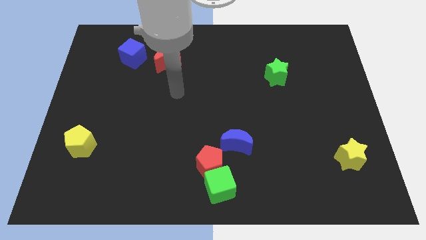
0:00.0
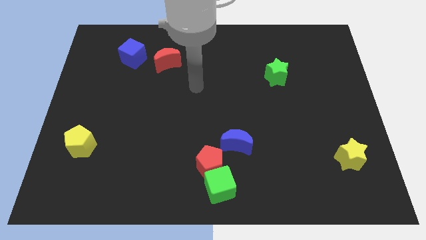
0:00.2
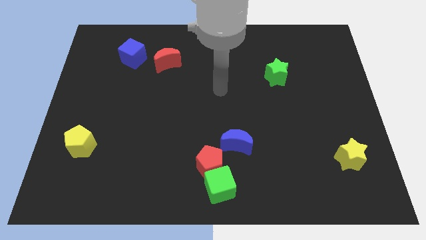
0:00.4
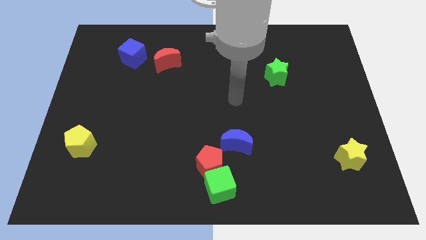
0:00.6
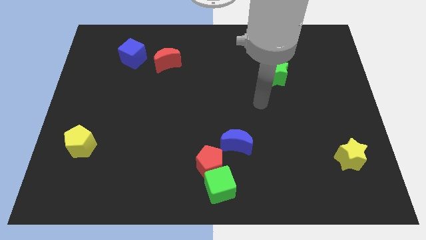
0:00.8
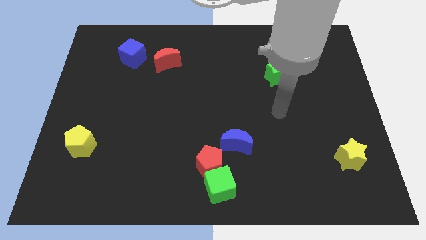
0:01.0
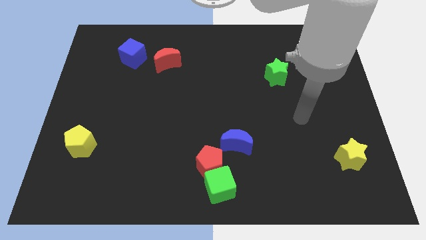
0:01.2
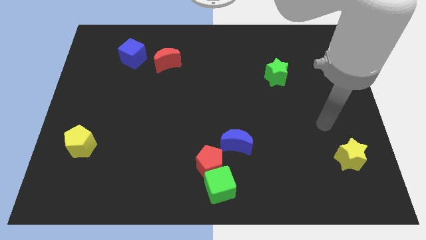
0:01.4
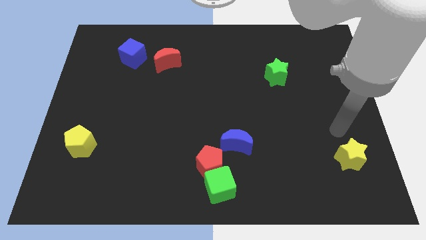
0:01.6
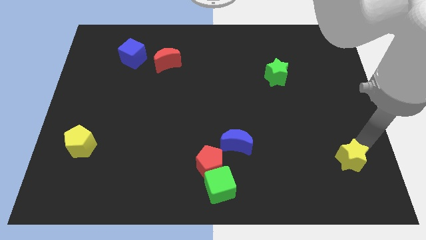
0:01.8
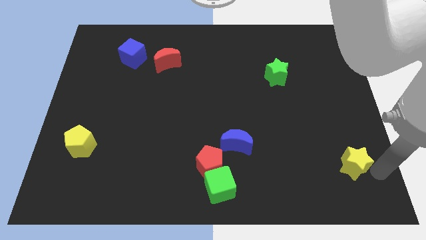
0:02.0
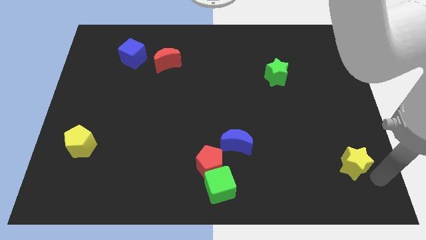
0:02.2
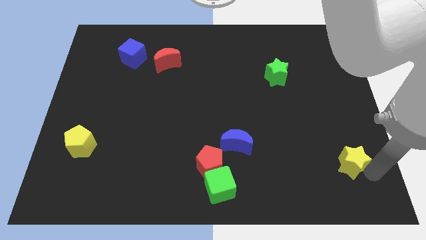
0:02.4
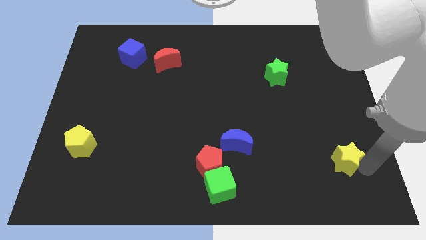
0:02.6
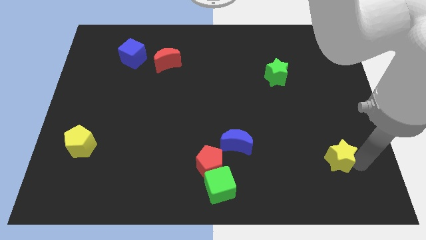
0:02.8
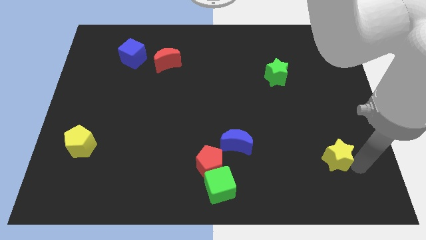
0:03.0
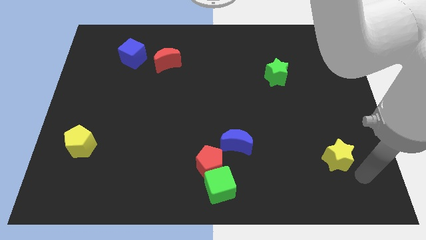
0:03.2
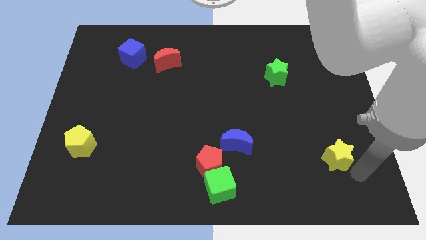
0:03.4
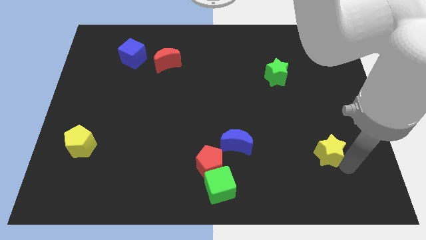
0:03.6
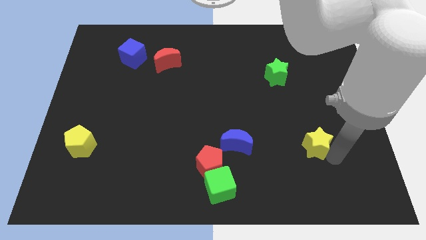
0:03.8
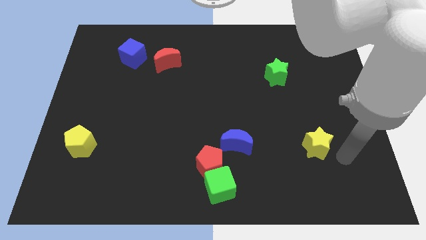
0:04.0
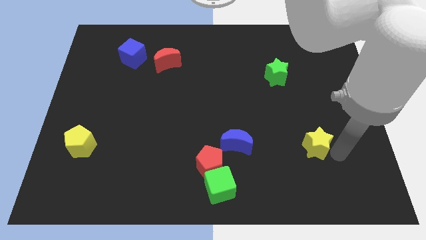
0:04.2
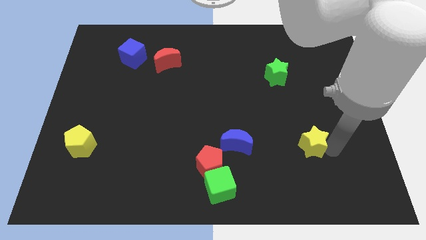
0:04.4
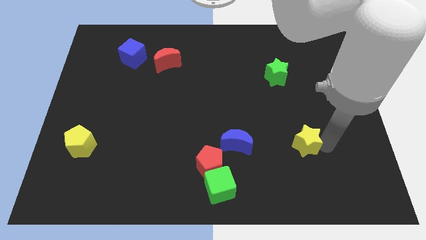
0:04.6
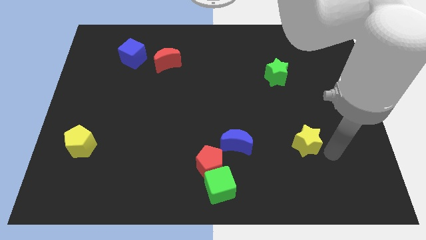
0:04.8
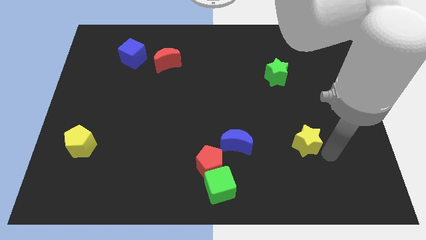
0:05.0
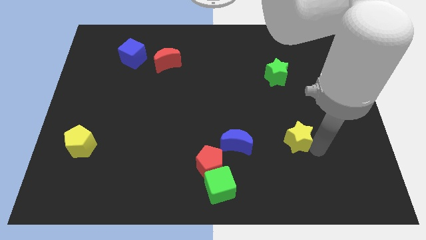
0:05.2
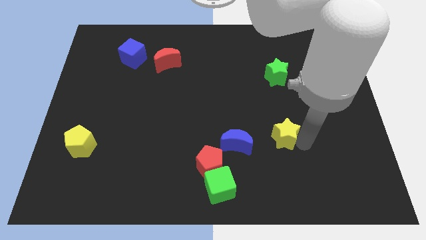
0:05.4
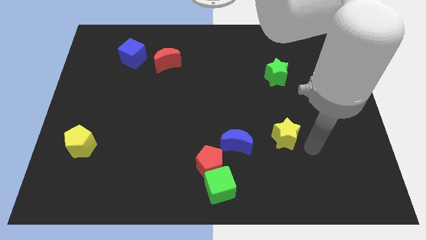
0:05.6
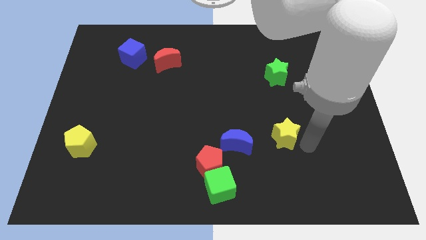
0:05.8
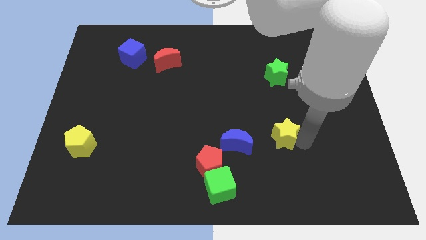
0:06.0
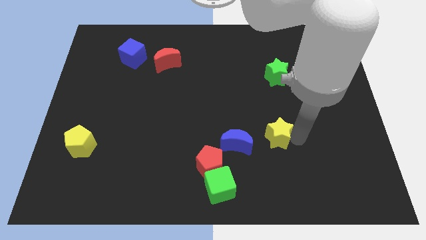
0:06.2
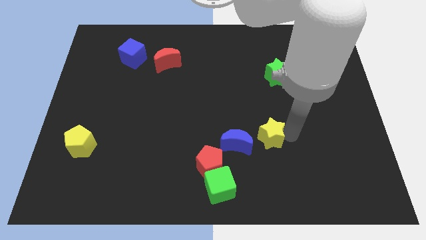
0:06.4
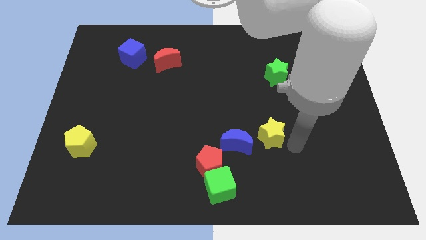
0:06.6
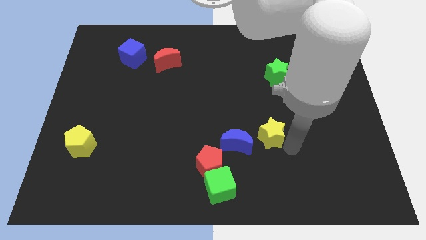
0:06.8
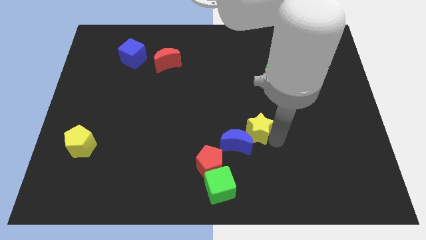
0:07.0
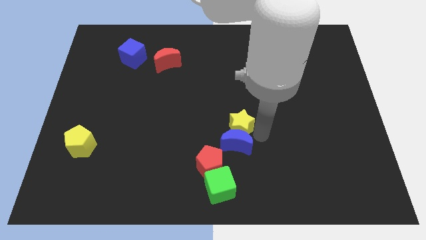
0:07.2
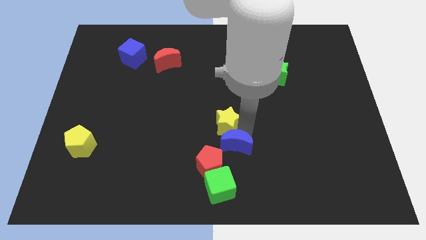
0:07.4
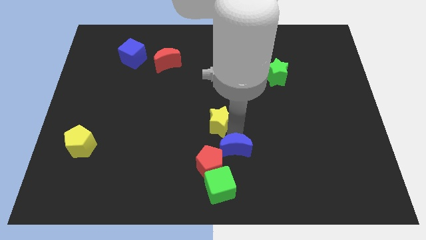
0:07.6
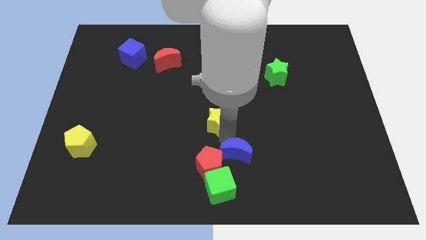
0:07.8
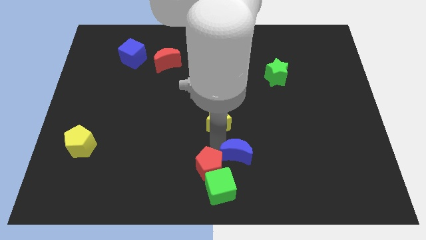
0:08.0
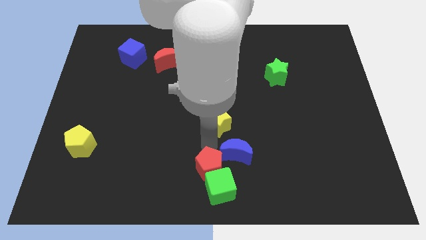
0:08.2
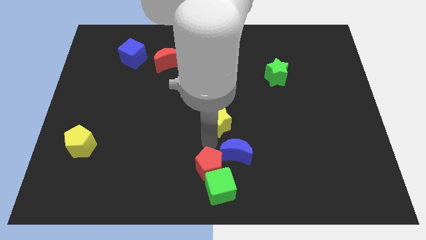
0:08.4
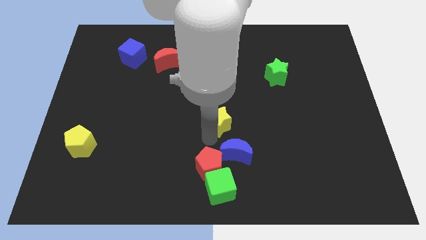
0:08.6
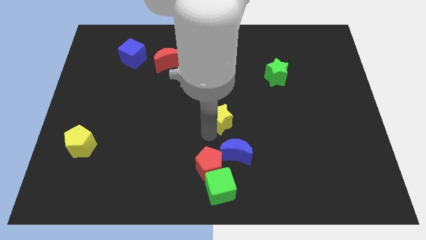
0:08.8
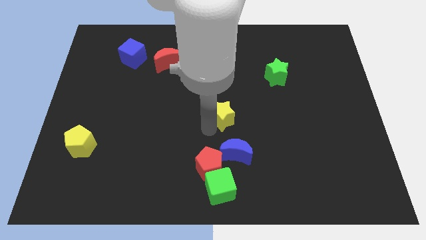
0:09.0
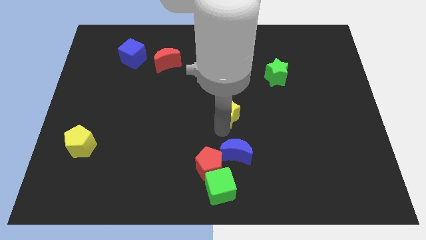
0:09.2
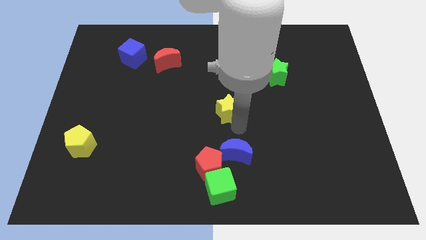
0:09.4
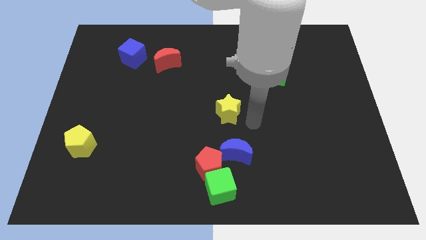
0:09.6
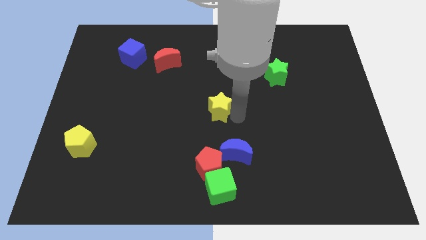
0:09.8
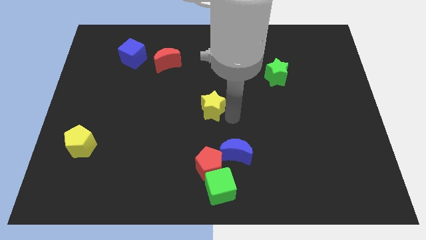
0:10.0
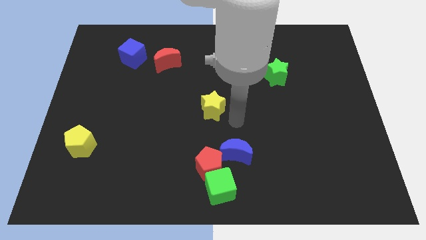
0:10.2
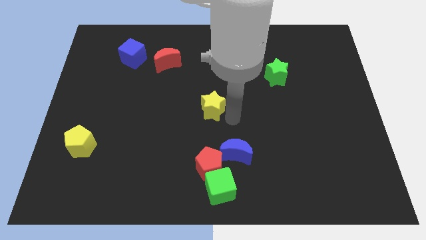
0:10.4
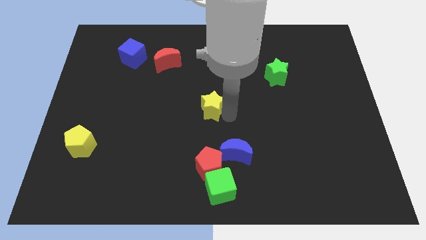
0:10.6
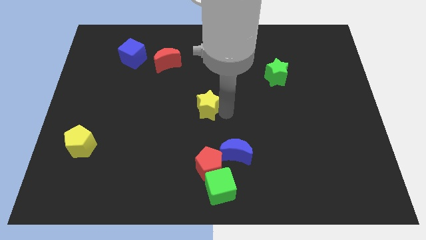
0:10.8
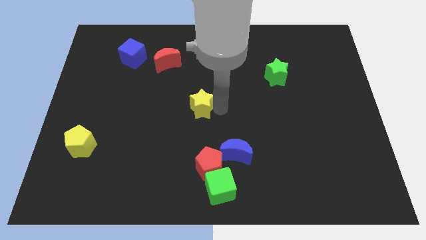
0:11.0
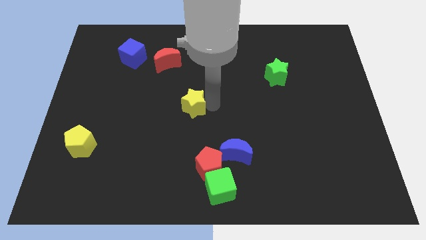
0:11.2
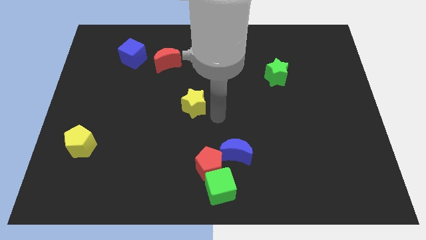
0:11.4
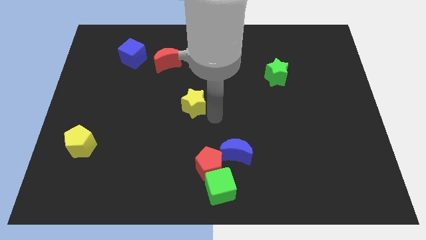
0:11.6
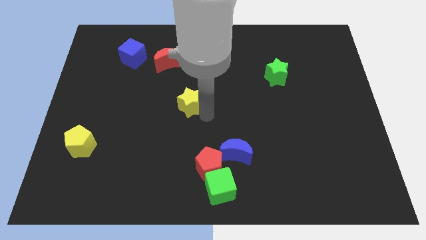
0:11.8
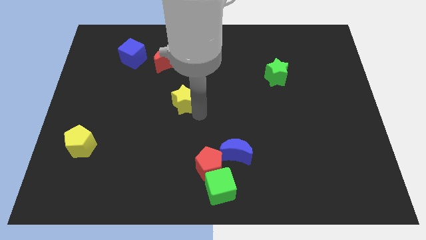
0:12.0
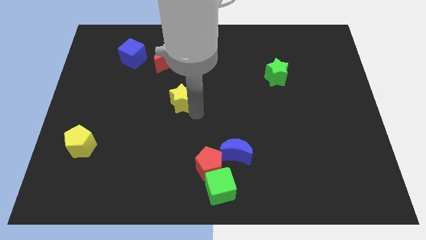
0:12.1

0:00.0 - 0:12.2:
put the yellow star below the red moon

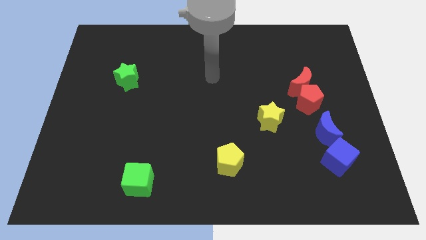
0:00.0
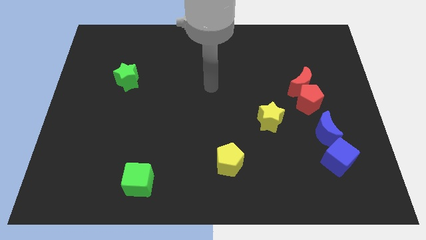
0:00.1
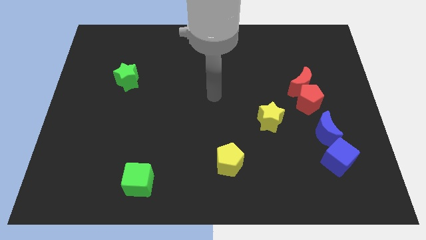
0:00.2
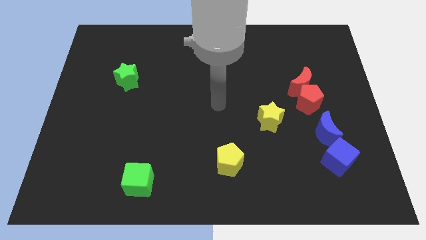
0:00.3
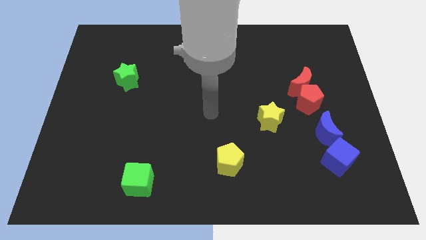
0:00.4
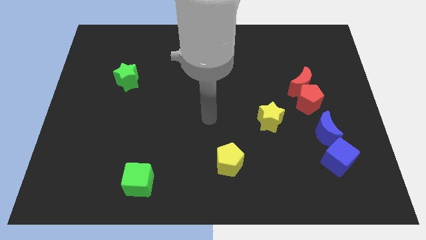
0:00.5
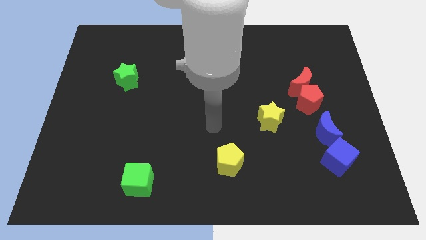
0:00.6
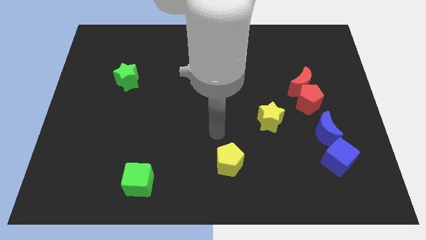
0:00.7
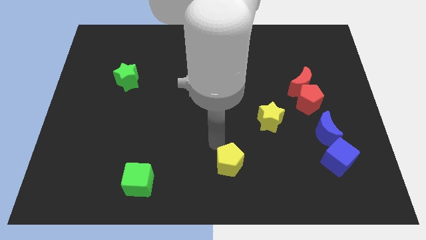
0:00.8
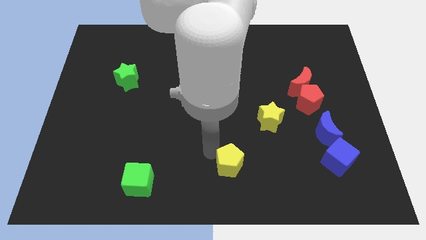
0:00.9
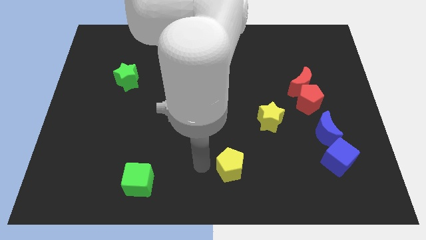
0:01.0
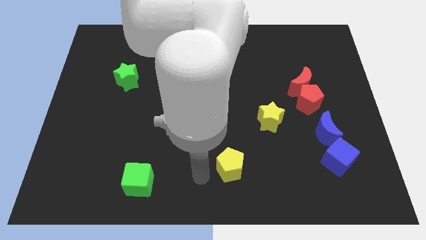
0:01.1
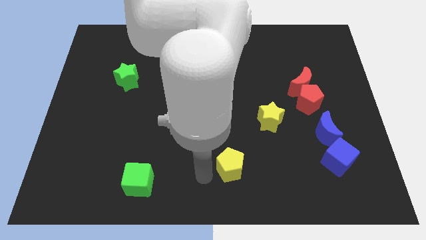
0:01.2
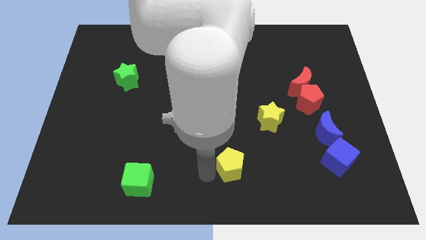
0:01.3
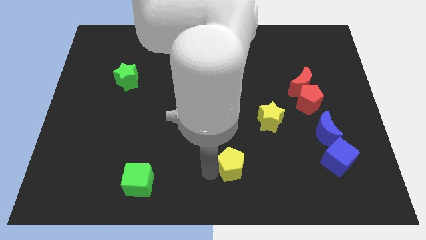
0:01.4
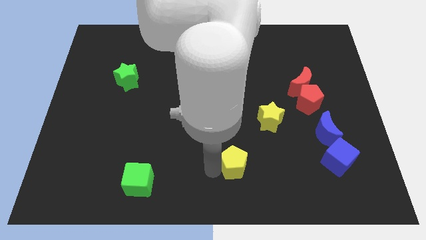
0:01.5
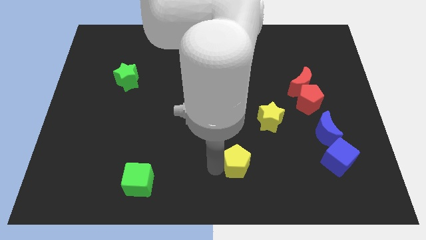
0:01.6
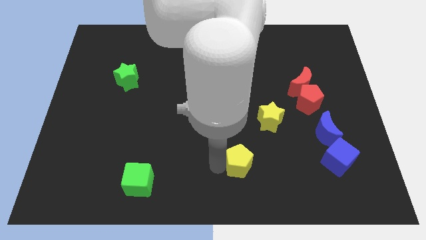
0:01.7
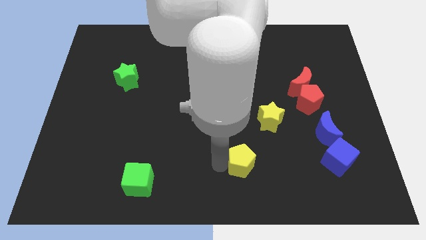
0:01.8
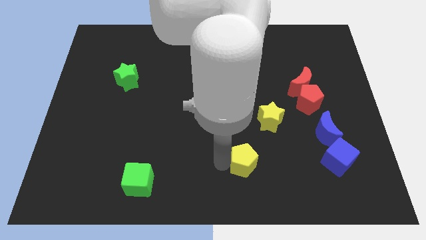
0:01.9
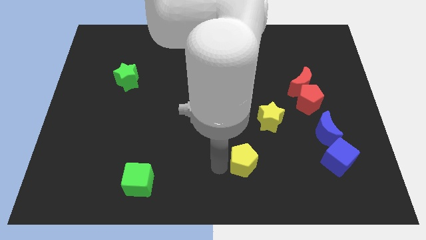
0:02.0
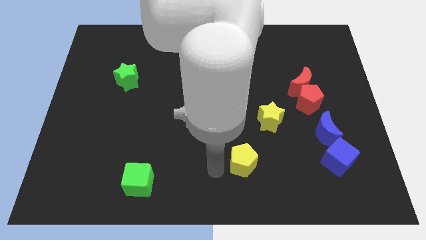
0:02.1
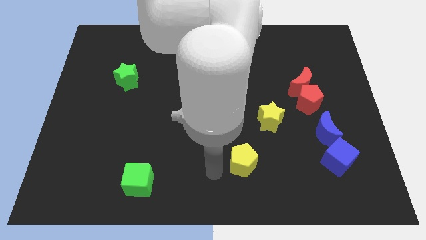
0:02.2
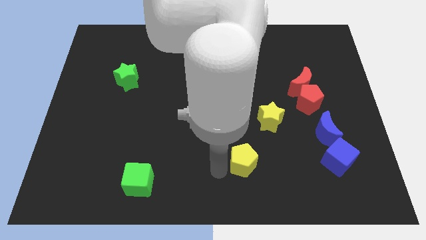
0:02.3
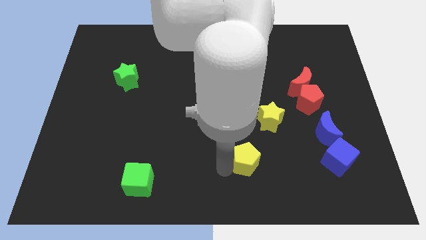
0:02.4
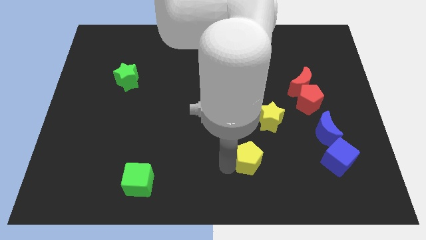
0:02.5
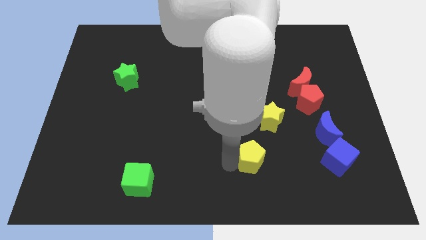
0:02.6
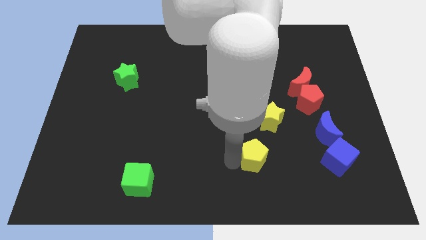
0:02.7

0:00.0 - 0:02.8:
slide the yellow pentagon below the yellow star
